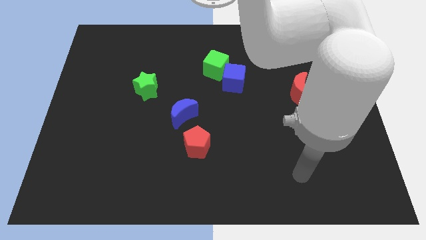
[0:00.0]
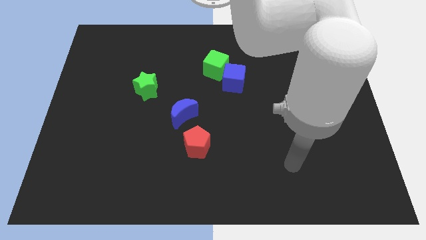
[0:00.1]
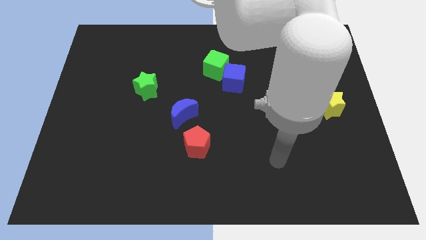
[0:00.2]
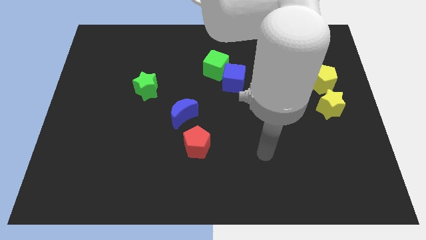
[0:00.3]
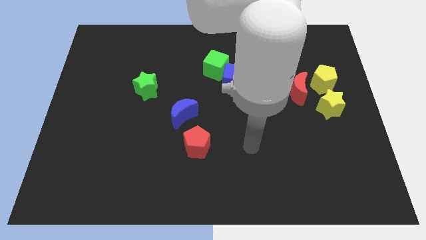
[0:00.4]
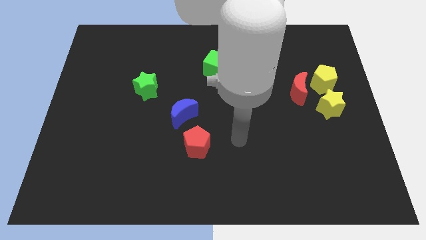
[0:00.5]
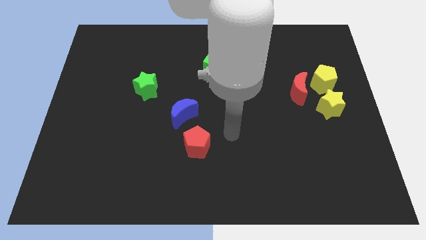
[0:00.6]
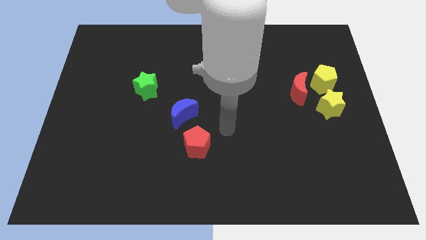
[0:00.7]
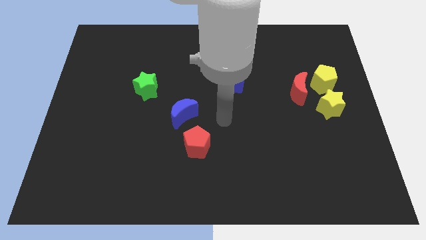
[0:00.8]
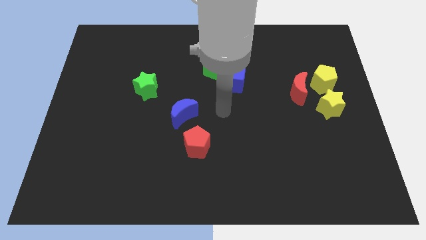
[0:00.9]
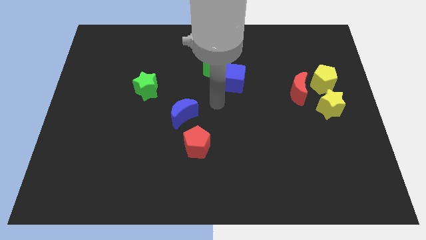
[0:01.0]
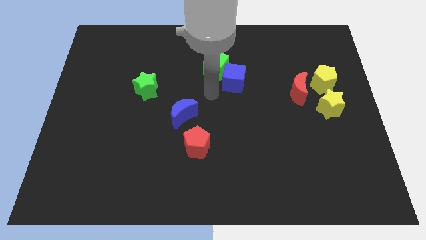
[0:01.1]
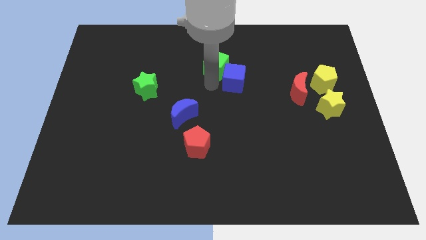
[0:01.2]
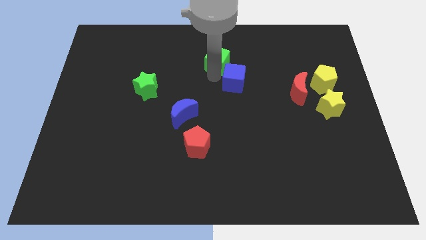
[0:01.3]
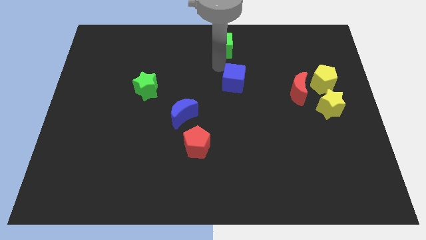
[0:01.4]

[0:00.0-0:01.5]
pull the blue cube apart from the green cube

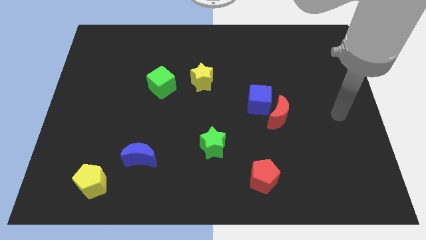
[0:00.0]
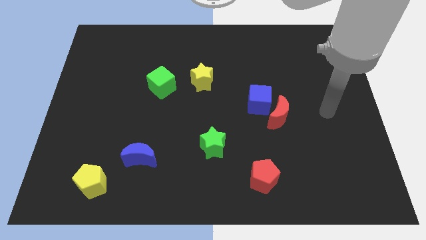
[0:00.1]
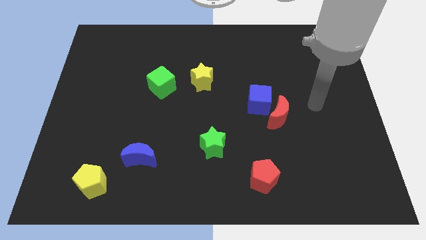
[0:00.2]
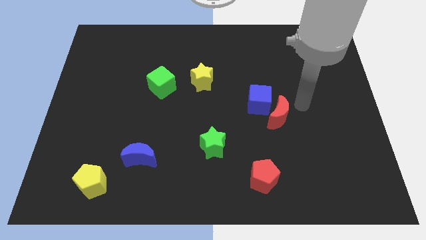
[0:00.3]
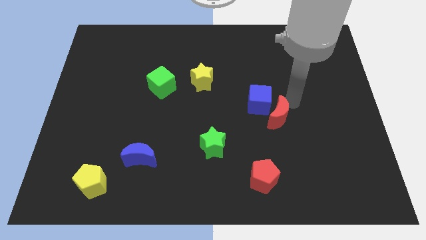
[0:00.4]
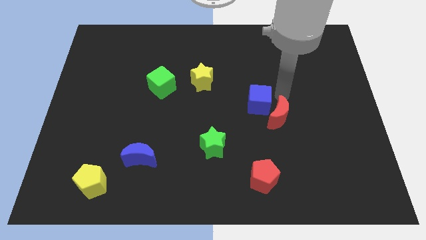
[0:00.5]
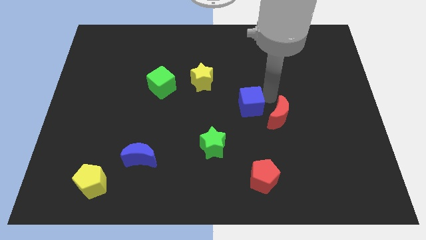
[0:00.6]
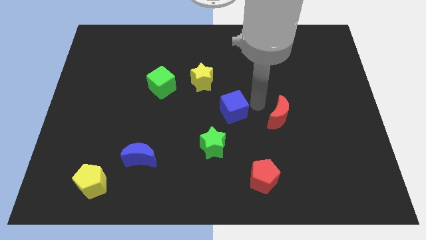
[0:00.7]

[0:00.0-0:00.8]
pull the red moon apart from the blue cube

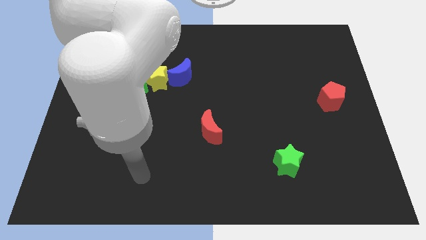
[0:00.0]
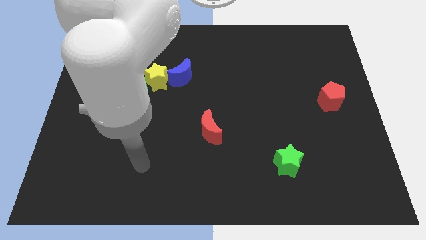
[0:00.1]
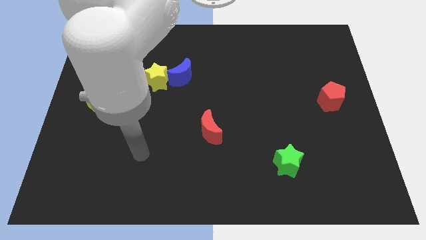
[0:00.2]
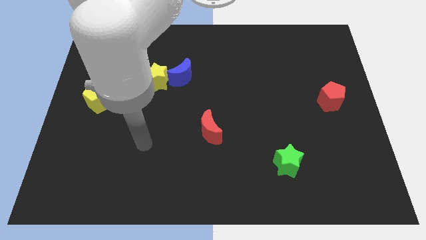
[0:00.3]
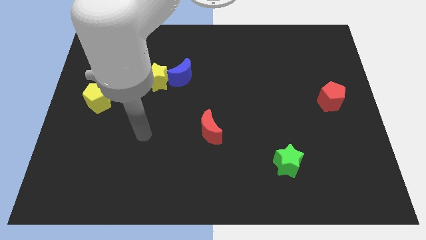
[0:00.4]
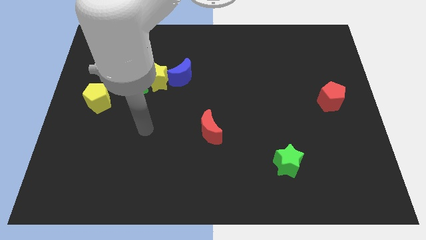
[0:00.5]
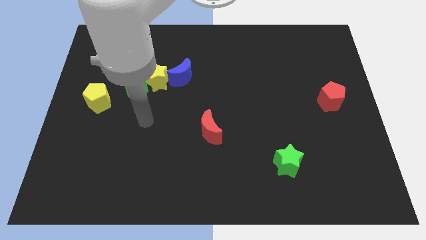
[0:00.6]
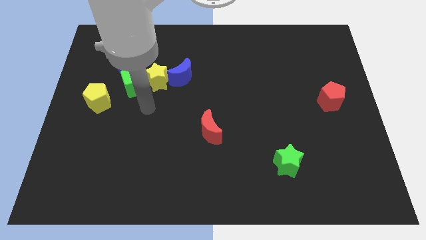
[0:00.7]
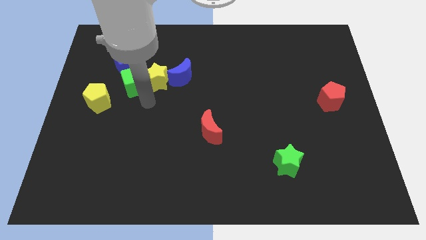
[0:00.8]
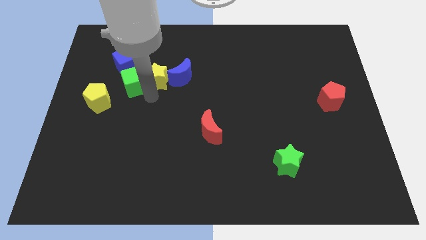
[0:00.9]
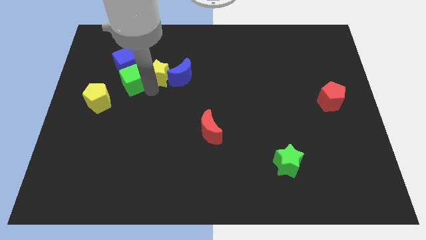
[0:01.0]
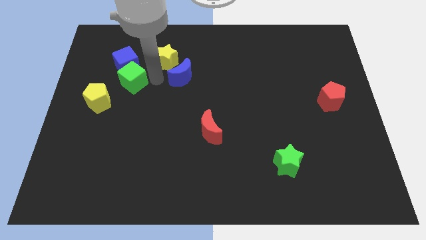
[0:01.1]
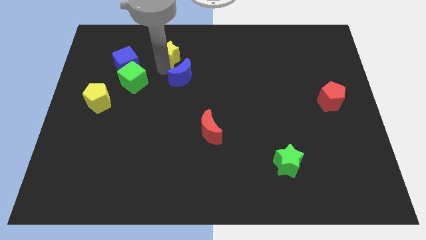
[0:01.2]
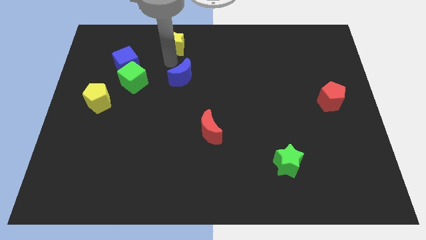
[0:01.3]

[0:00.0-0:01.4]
separate the blue moon from the yellow star

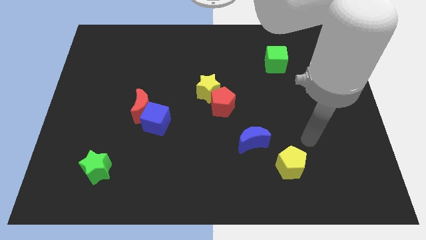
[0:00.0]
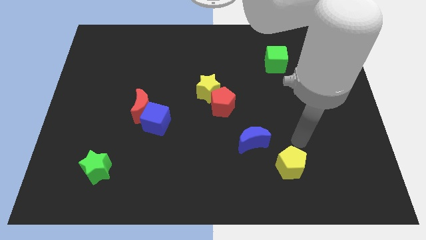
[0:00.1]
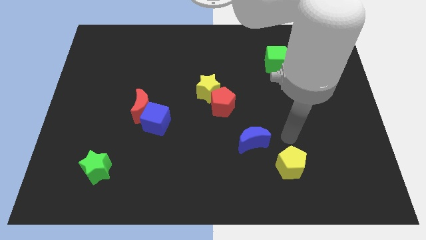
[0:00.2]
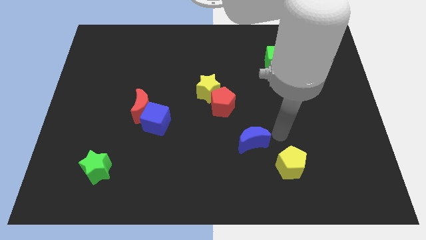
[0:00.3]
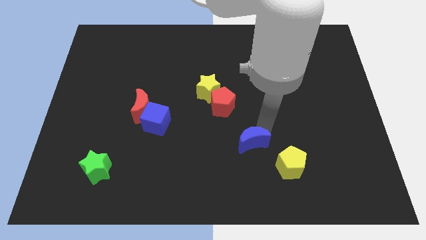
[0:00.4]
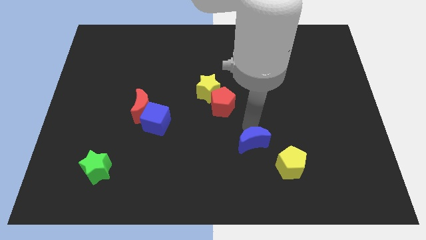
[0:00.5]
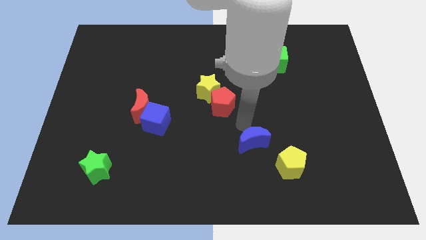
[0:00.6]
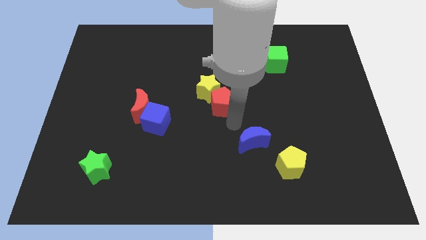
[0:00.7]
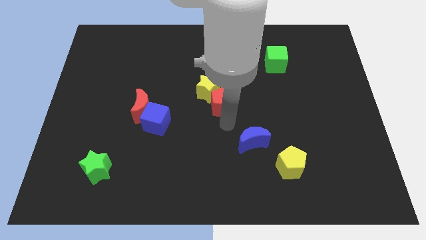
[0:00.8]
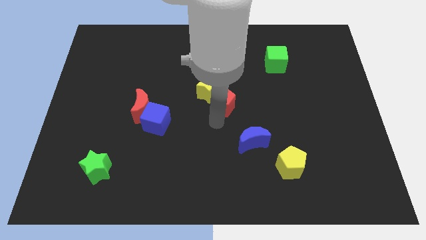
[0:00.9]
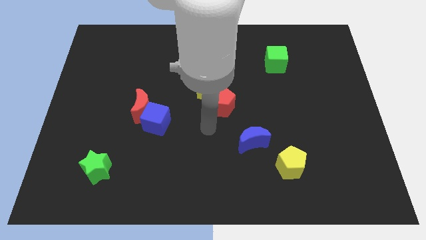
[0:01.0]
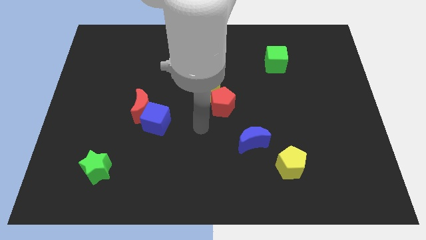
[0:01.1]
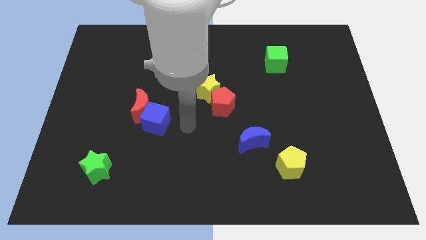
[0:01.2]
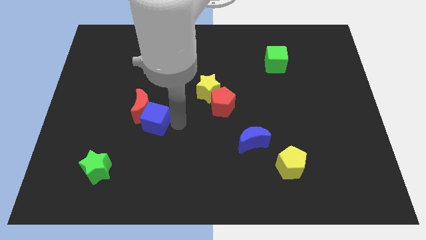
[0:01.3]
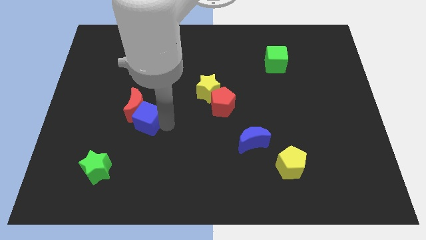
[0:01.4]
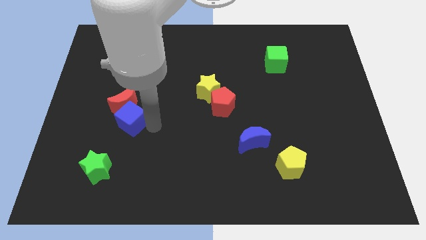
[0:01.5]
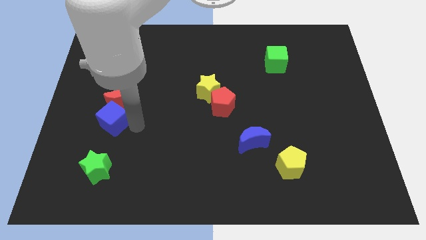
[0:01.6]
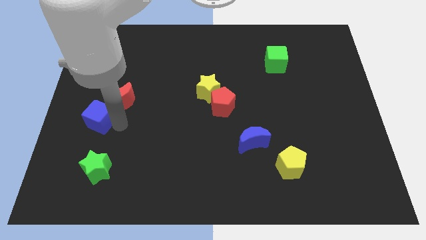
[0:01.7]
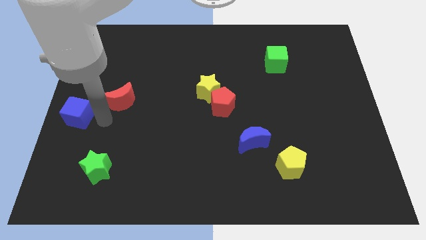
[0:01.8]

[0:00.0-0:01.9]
separate the red moon from the blue cube

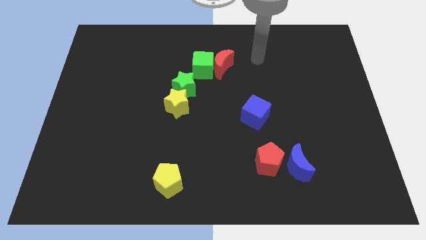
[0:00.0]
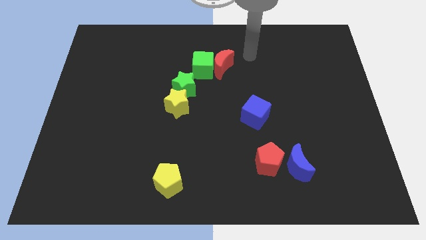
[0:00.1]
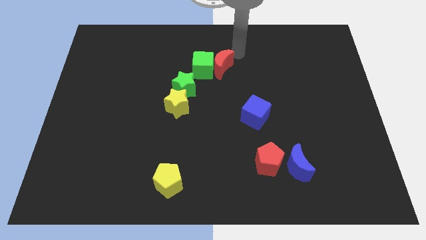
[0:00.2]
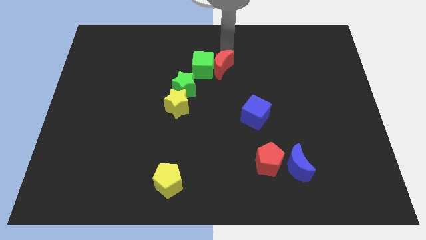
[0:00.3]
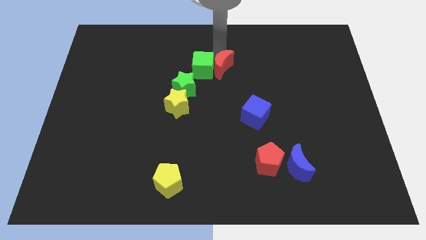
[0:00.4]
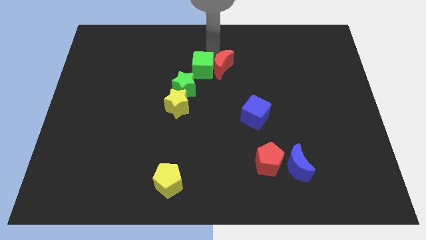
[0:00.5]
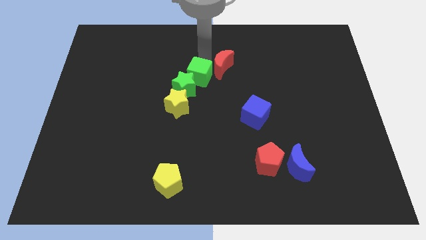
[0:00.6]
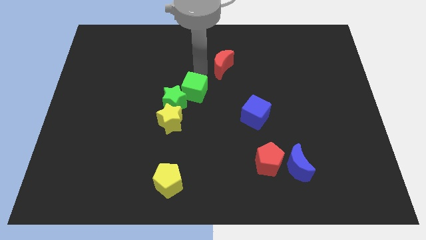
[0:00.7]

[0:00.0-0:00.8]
pull the red moon apart from the green cube

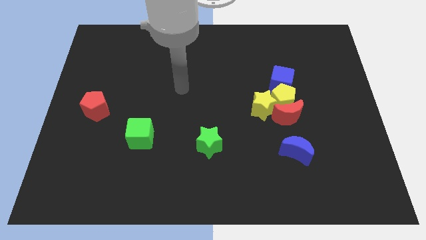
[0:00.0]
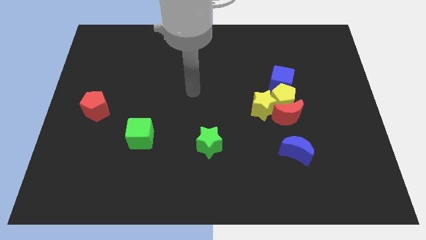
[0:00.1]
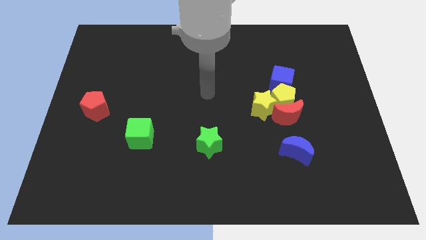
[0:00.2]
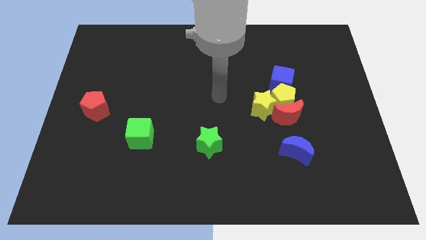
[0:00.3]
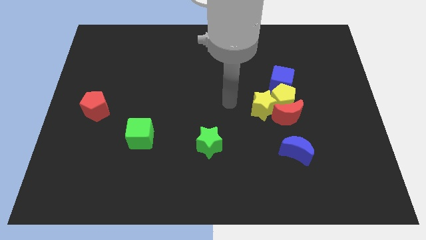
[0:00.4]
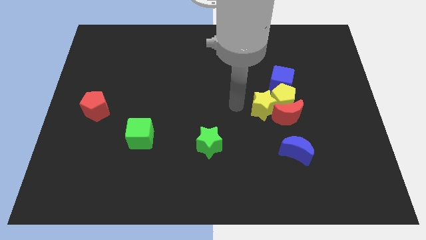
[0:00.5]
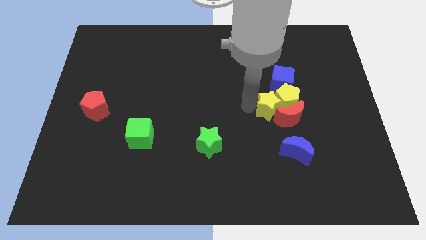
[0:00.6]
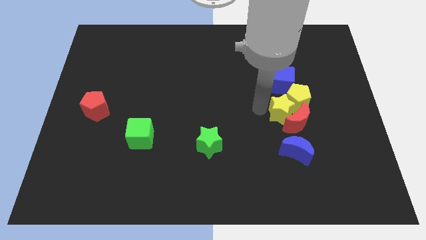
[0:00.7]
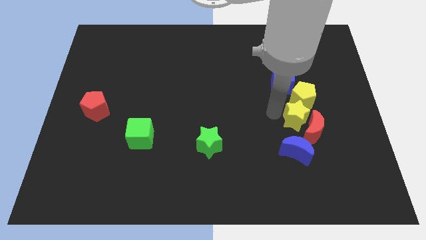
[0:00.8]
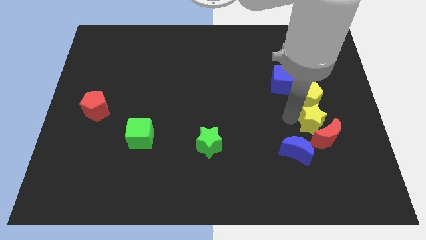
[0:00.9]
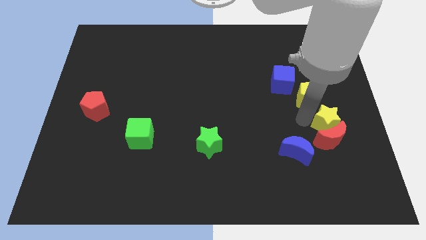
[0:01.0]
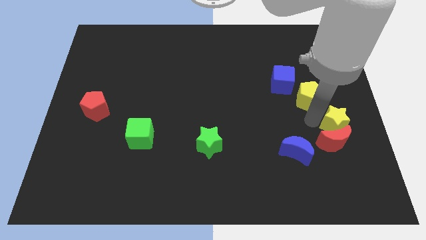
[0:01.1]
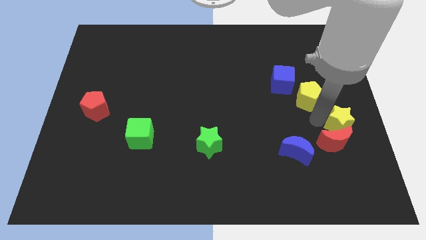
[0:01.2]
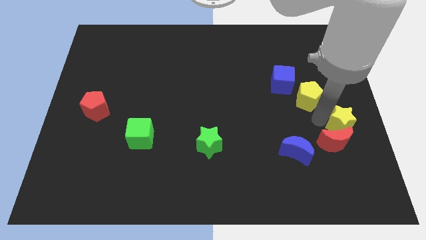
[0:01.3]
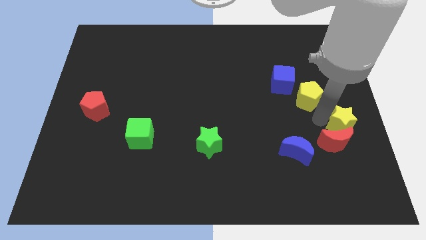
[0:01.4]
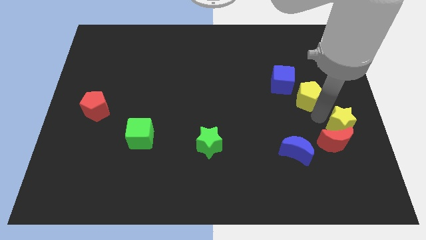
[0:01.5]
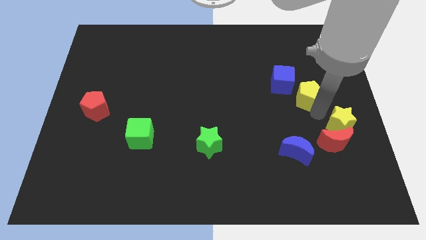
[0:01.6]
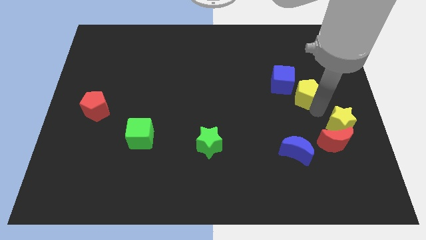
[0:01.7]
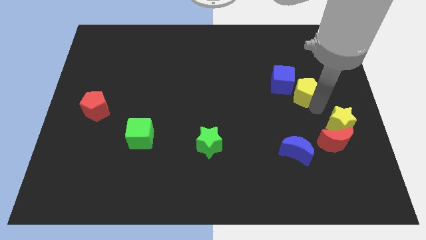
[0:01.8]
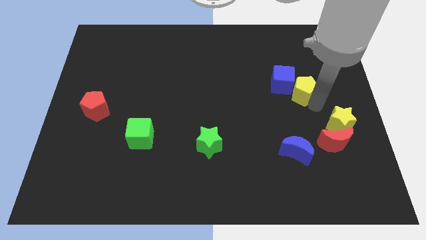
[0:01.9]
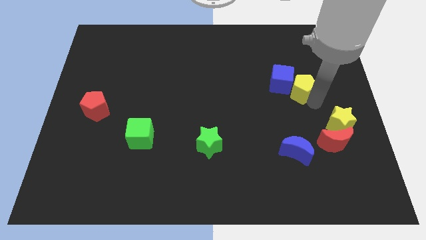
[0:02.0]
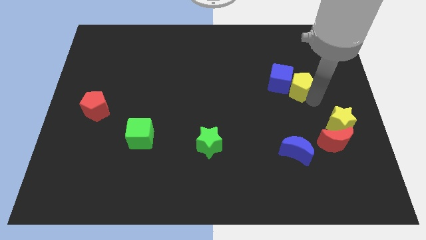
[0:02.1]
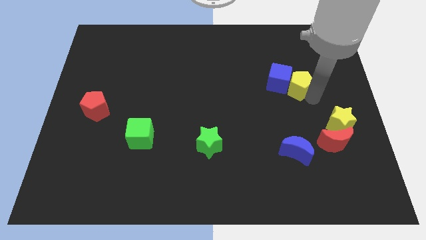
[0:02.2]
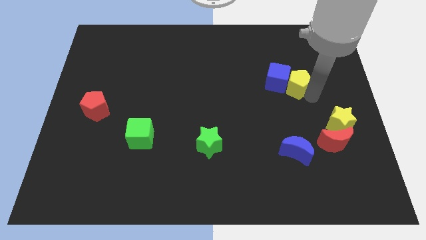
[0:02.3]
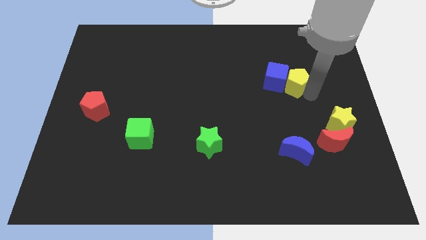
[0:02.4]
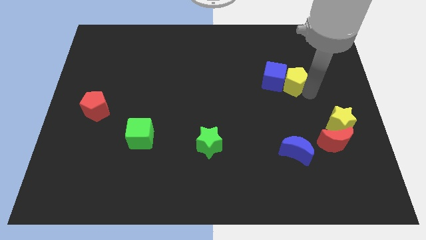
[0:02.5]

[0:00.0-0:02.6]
pull the yellow pentagon apart from the red moon, yellow star, and blue cube

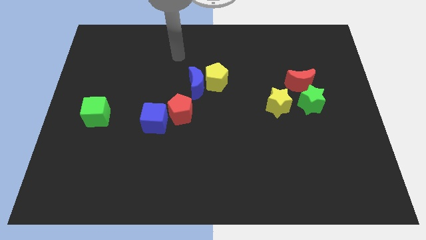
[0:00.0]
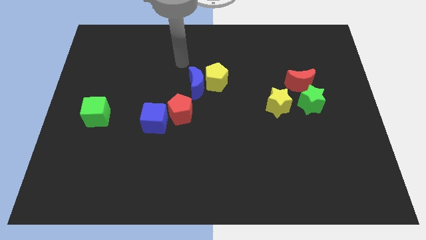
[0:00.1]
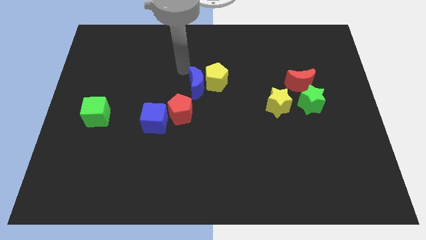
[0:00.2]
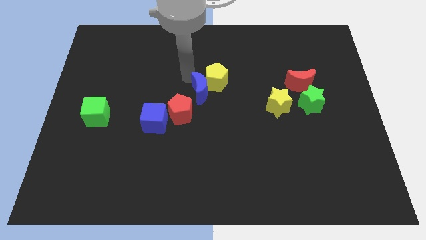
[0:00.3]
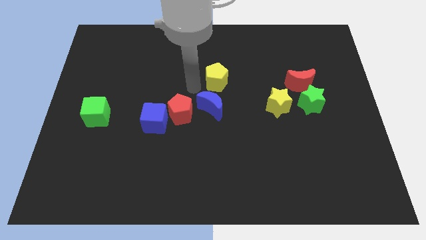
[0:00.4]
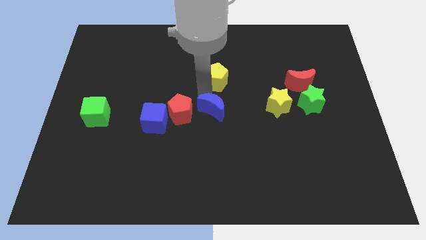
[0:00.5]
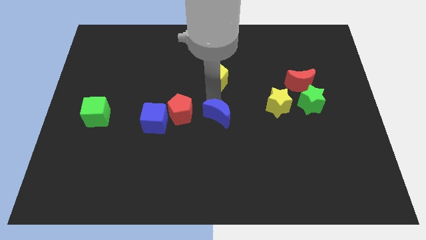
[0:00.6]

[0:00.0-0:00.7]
move the yellow pentagon away from the blue moon
